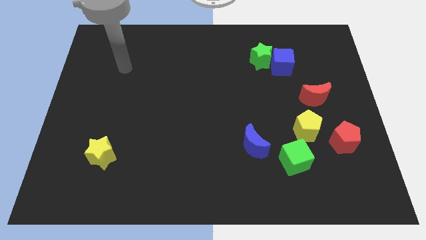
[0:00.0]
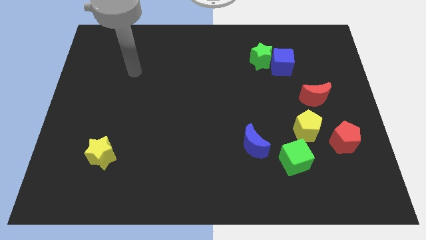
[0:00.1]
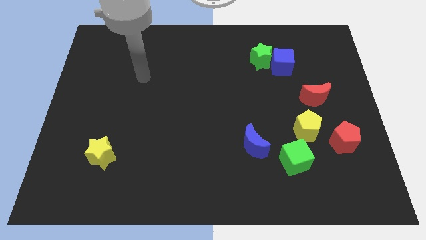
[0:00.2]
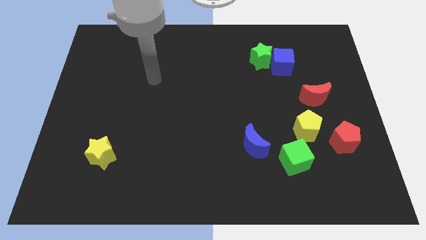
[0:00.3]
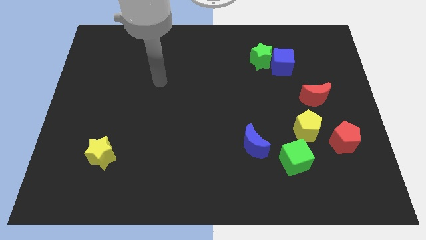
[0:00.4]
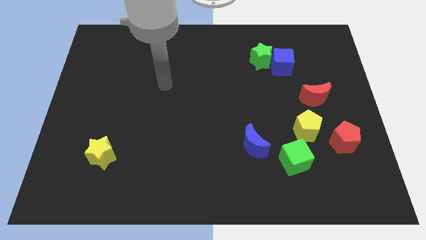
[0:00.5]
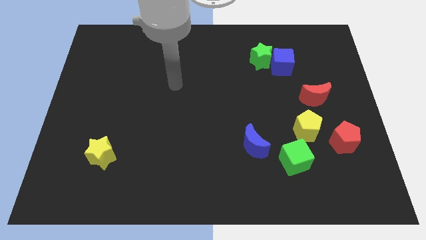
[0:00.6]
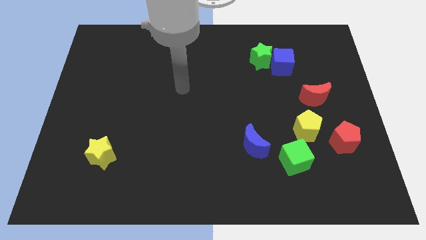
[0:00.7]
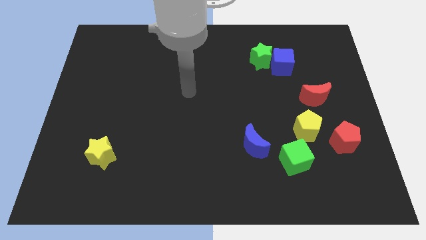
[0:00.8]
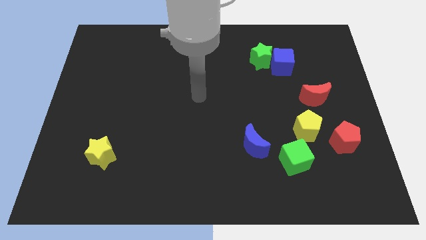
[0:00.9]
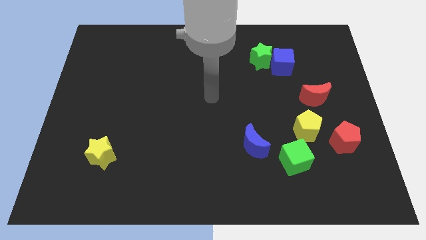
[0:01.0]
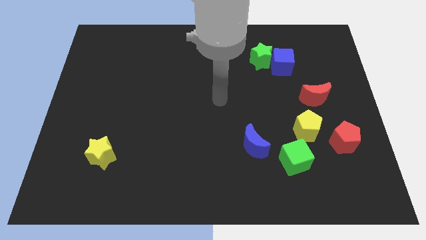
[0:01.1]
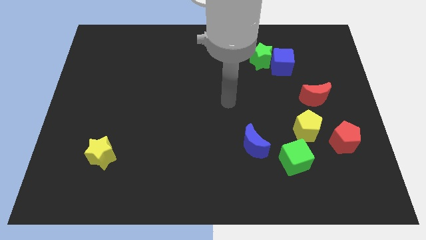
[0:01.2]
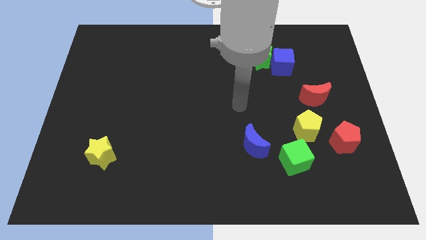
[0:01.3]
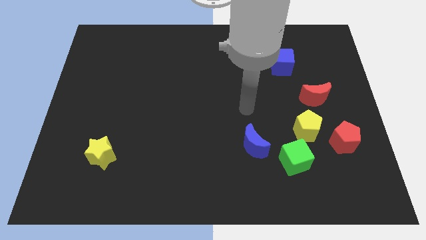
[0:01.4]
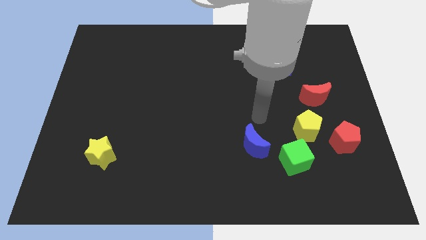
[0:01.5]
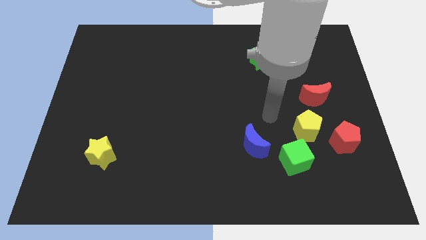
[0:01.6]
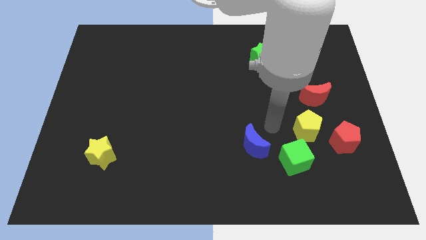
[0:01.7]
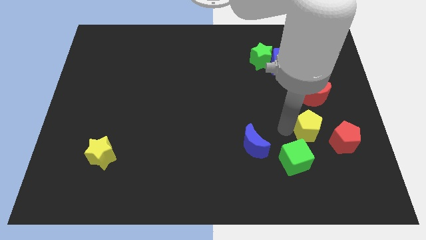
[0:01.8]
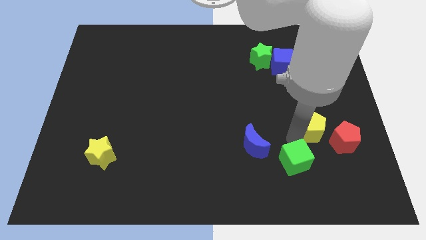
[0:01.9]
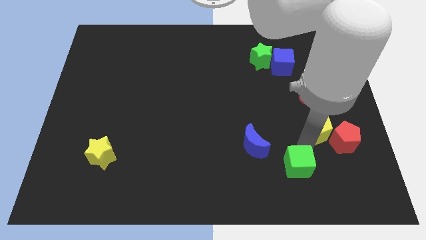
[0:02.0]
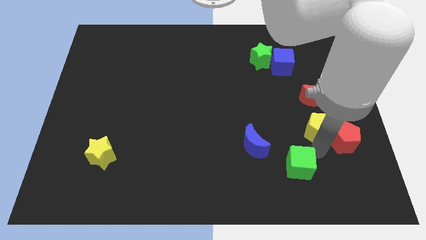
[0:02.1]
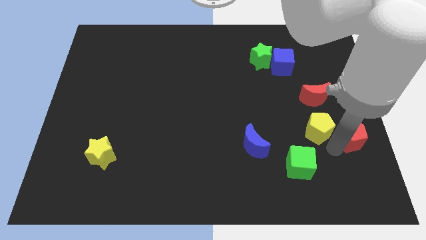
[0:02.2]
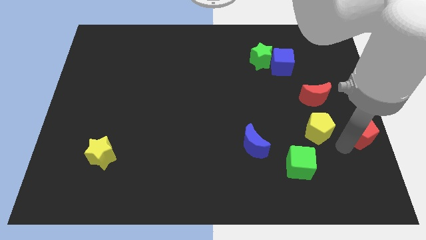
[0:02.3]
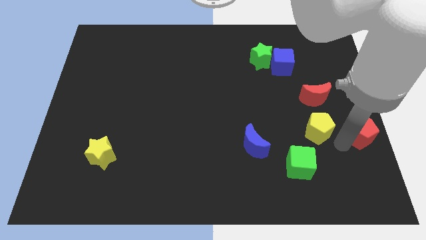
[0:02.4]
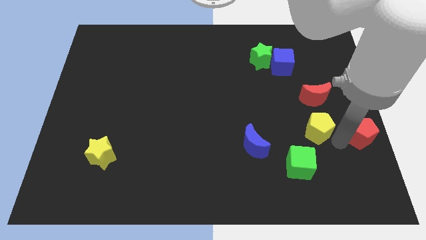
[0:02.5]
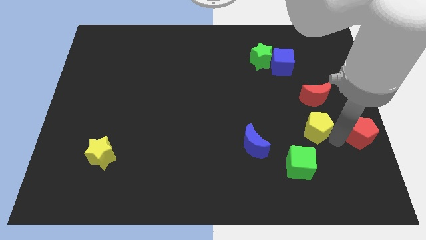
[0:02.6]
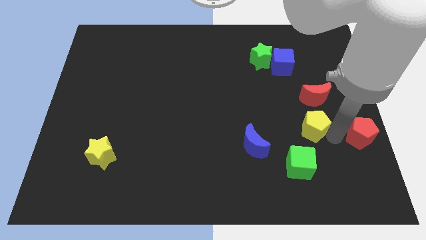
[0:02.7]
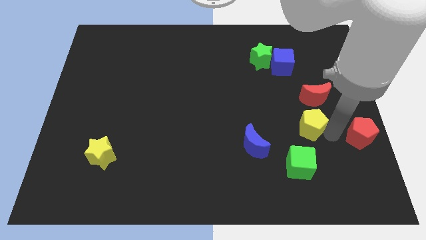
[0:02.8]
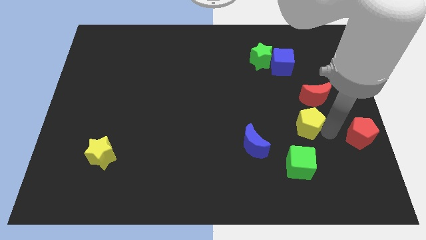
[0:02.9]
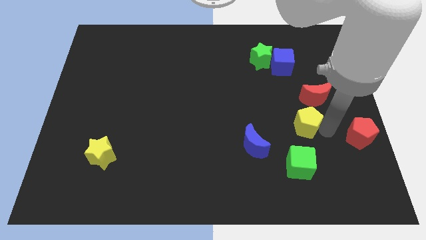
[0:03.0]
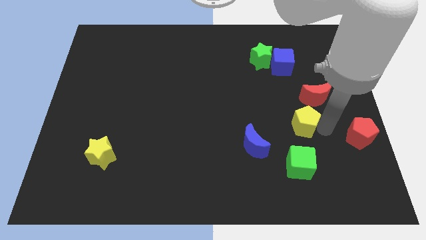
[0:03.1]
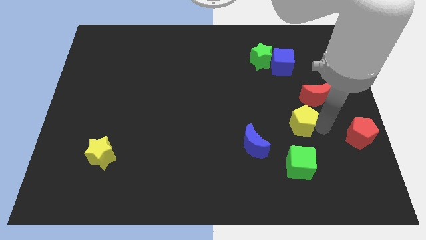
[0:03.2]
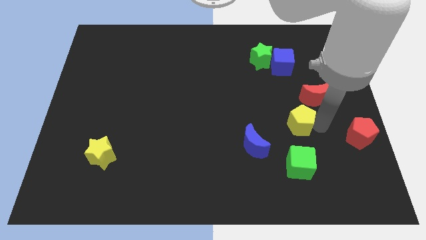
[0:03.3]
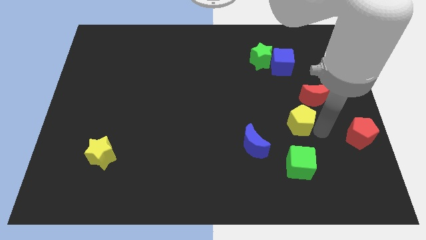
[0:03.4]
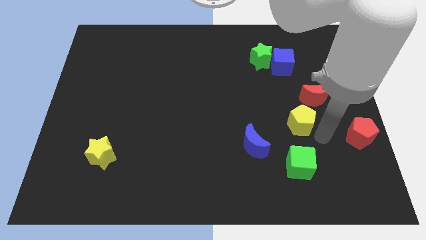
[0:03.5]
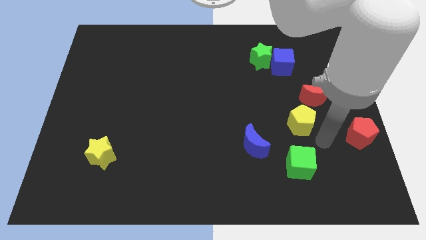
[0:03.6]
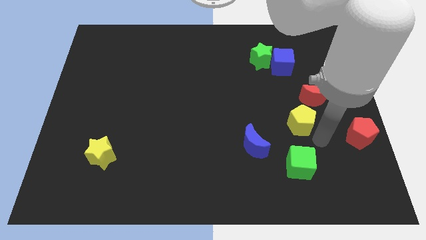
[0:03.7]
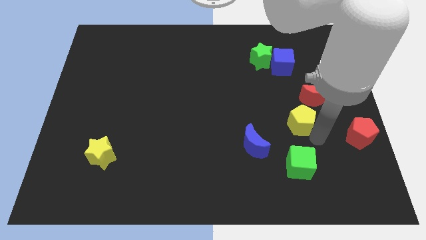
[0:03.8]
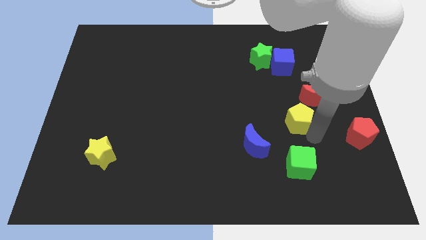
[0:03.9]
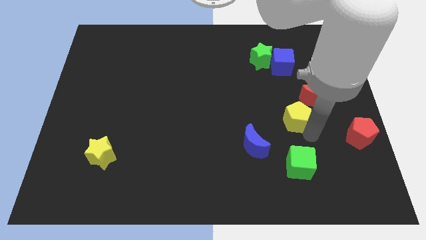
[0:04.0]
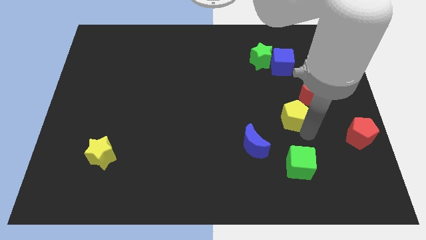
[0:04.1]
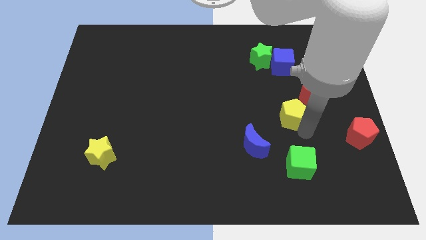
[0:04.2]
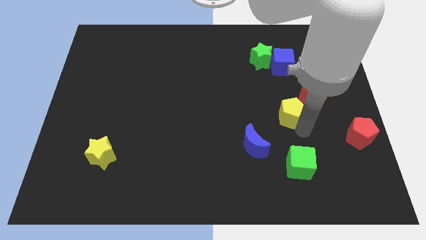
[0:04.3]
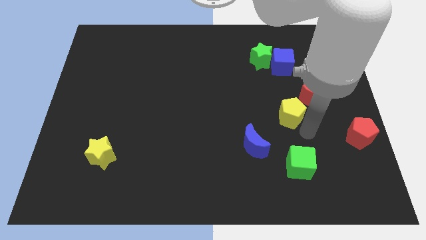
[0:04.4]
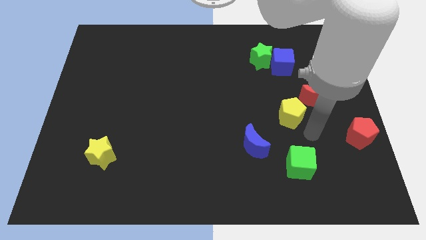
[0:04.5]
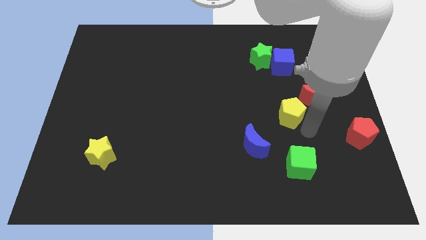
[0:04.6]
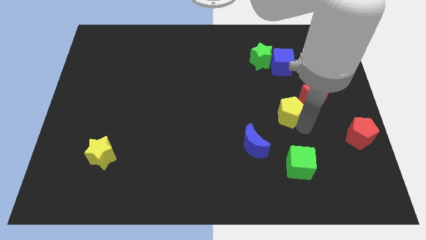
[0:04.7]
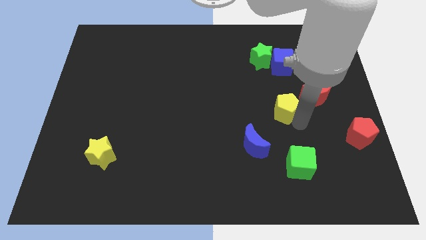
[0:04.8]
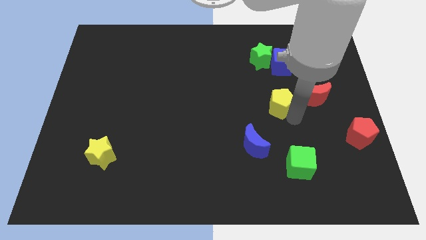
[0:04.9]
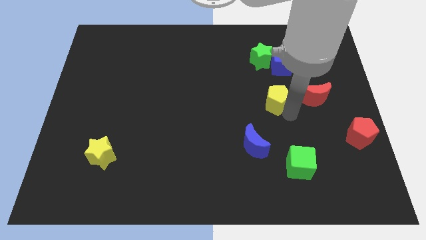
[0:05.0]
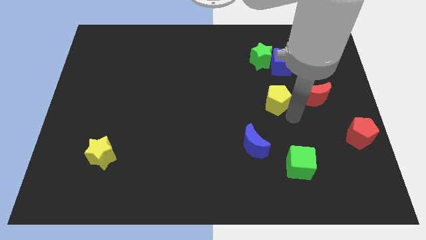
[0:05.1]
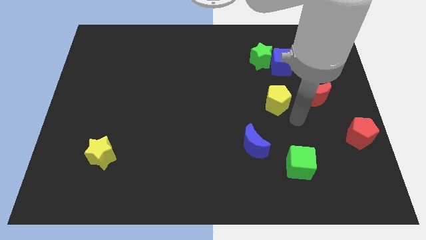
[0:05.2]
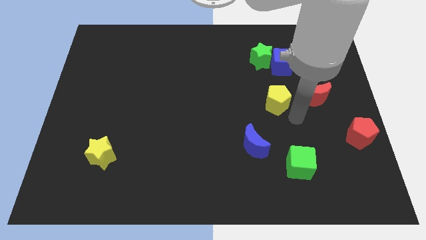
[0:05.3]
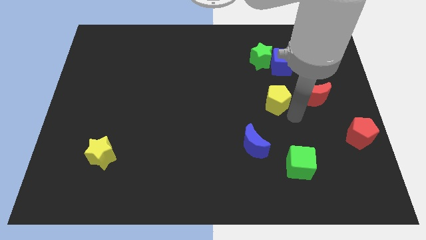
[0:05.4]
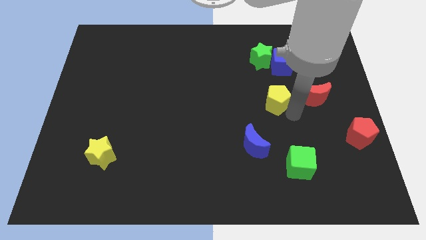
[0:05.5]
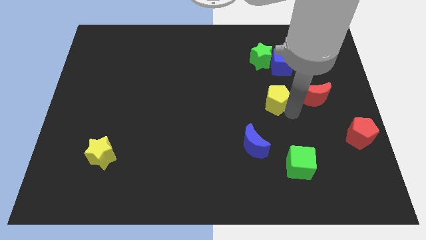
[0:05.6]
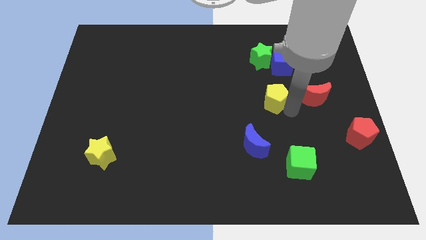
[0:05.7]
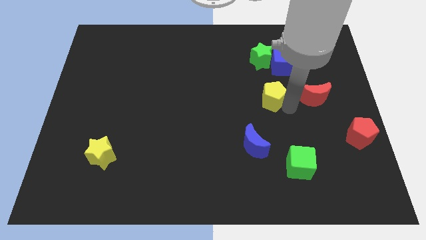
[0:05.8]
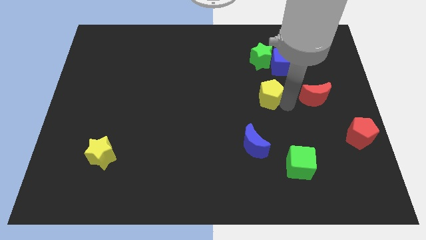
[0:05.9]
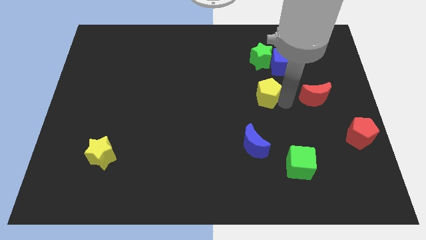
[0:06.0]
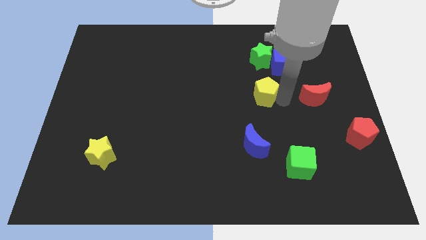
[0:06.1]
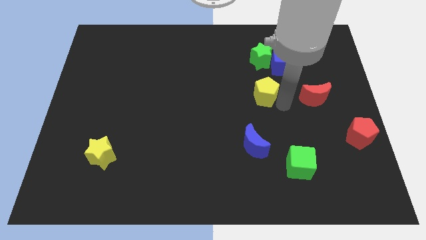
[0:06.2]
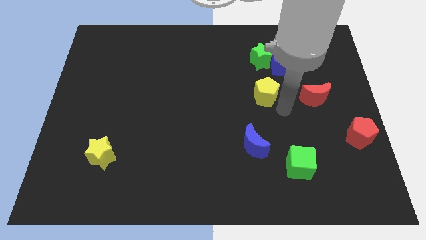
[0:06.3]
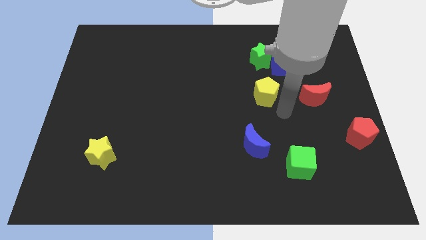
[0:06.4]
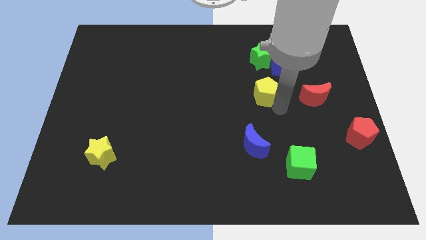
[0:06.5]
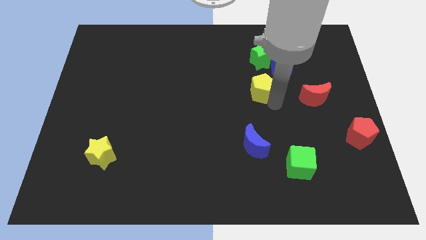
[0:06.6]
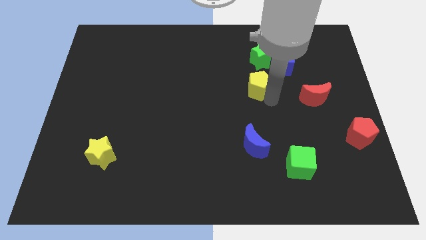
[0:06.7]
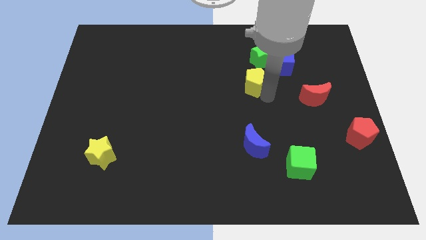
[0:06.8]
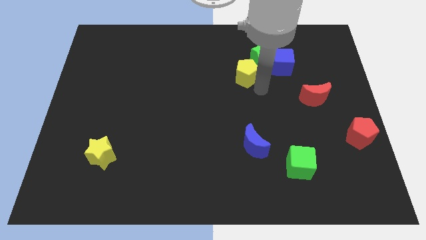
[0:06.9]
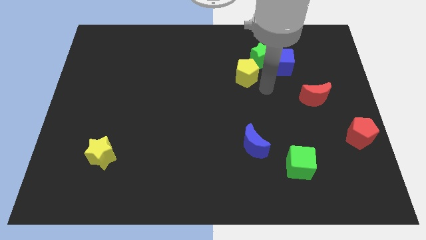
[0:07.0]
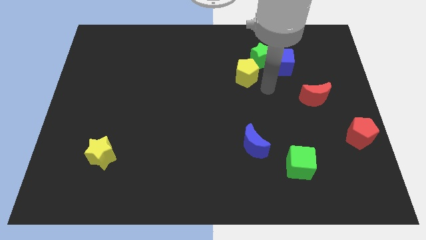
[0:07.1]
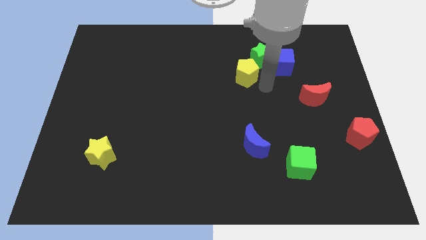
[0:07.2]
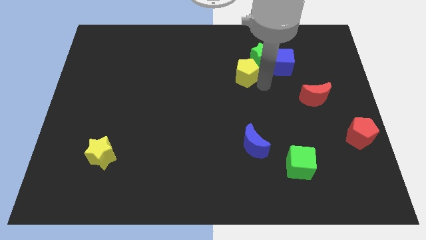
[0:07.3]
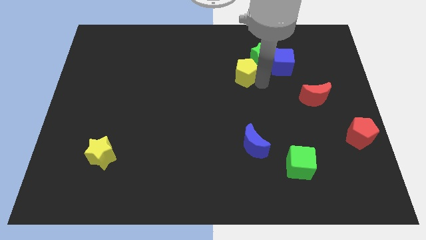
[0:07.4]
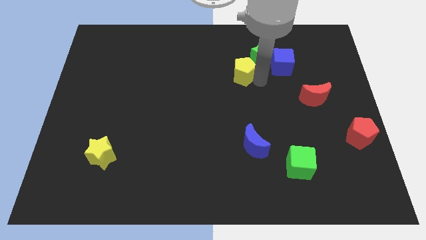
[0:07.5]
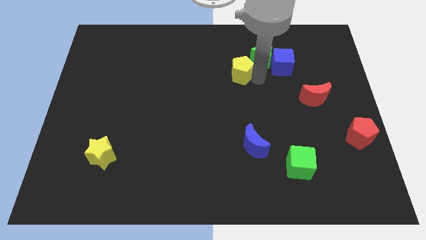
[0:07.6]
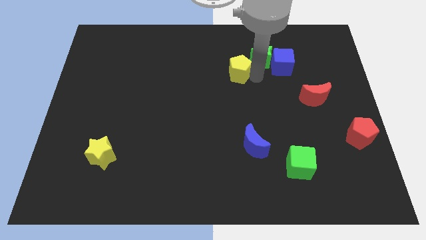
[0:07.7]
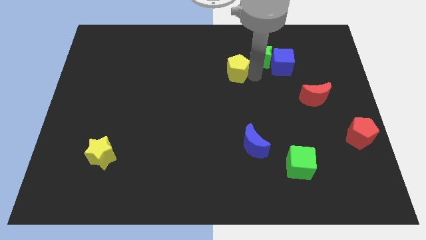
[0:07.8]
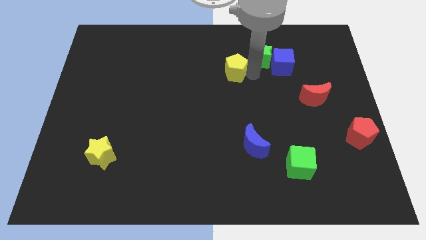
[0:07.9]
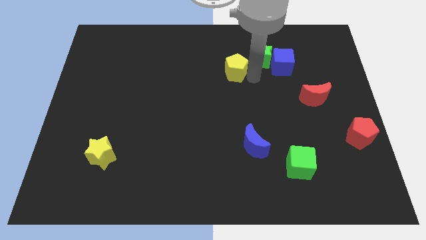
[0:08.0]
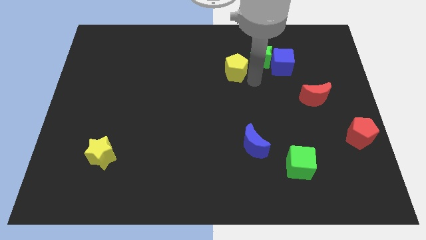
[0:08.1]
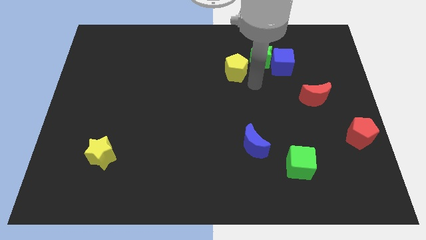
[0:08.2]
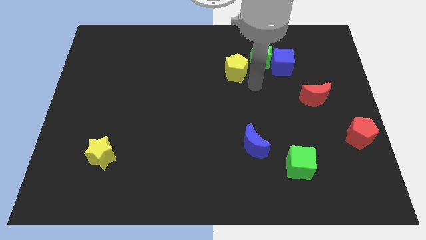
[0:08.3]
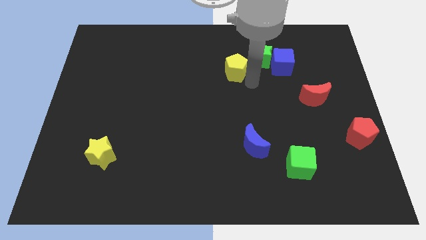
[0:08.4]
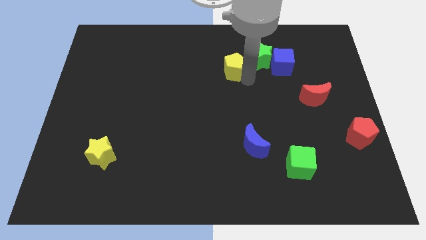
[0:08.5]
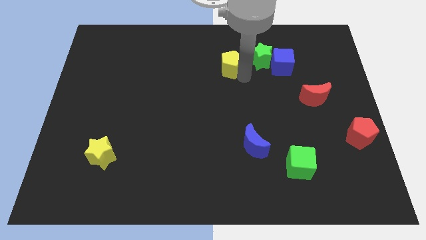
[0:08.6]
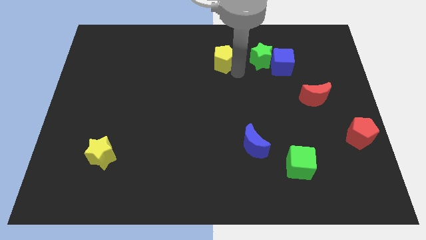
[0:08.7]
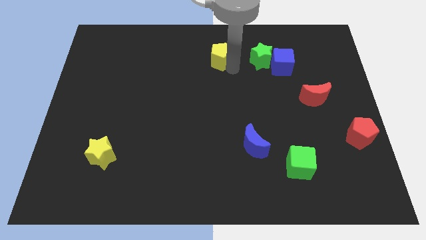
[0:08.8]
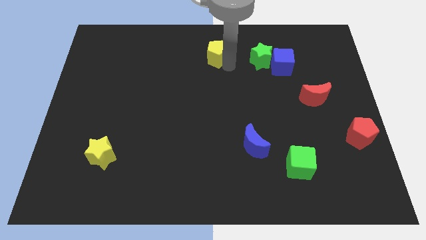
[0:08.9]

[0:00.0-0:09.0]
push the yellow pentagon to the top
